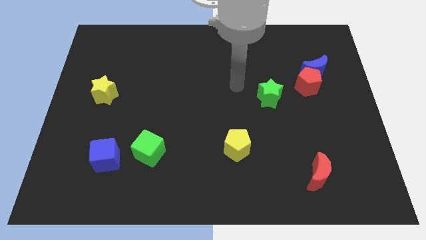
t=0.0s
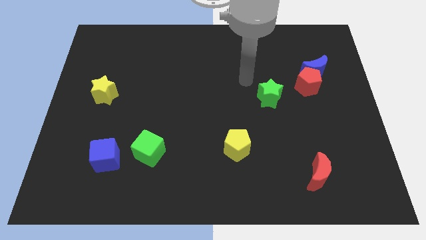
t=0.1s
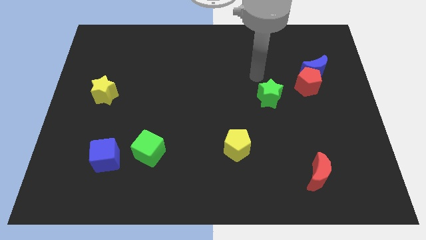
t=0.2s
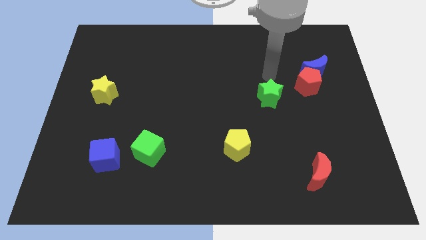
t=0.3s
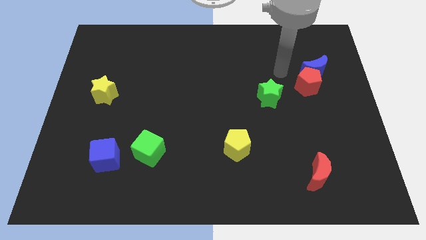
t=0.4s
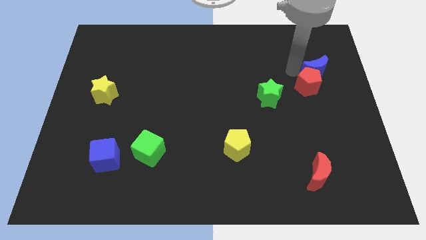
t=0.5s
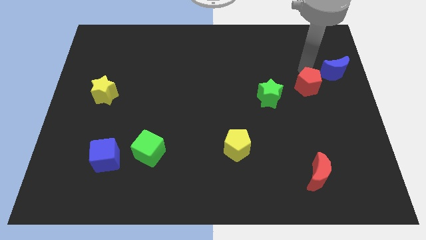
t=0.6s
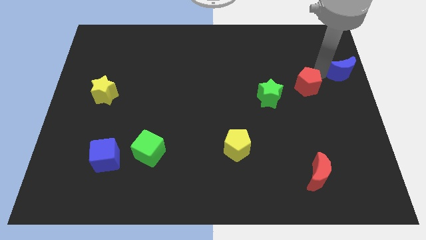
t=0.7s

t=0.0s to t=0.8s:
separate the red pentagon from the blue moon

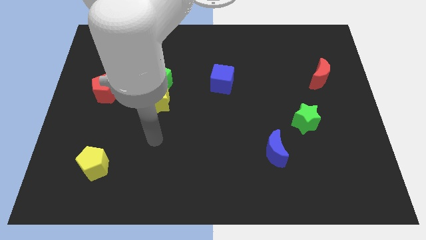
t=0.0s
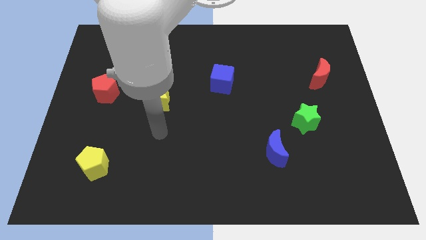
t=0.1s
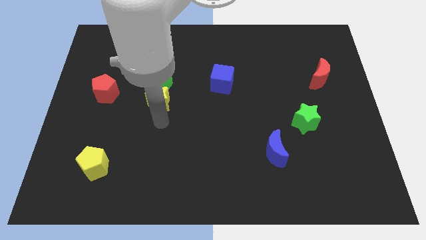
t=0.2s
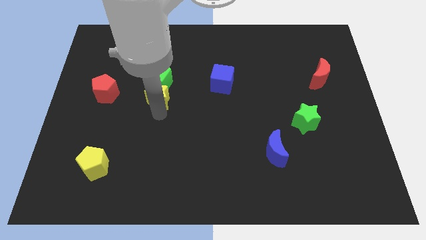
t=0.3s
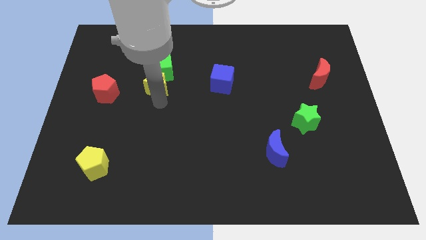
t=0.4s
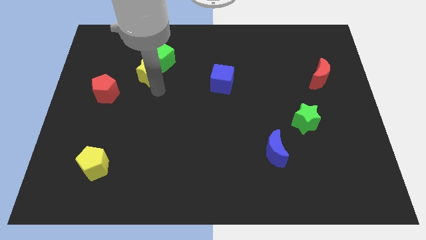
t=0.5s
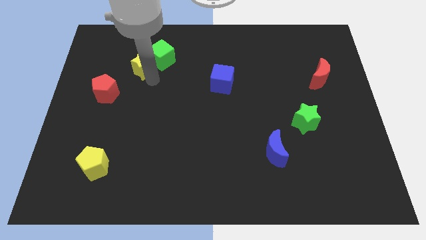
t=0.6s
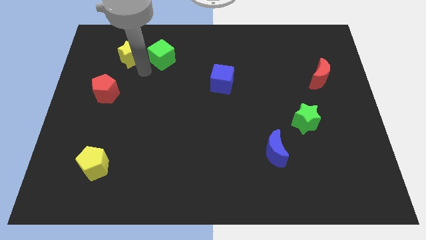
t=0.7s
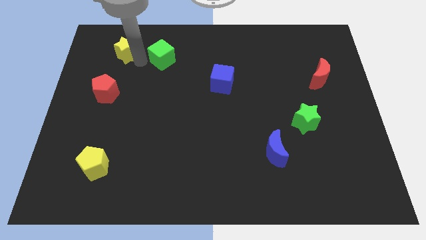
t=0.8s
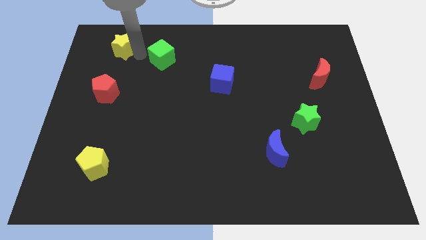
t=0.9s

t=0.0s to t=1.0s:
separate the green cube from the yellow star

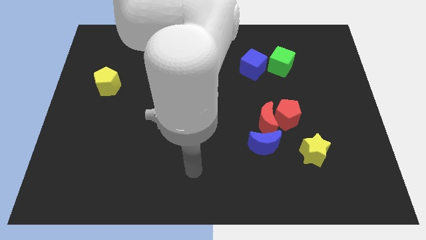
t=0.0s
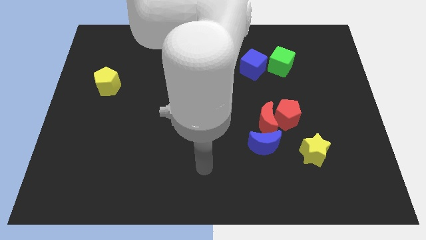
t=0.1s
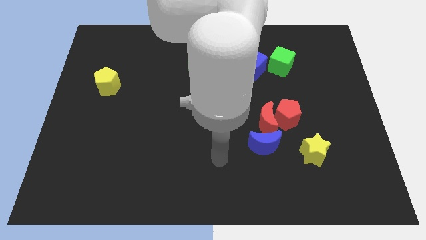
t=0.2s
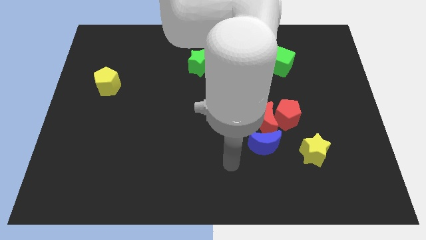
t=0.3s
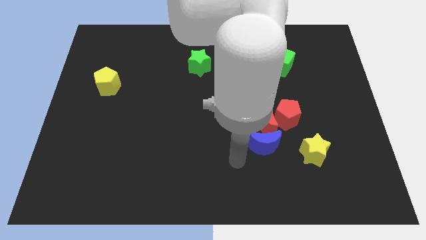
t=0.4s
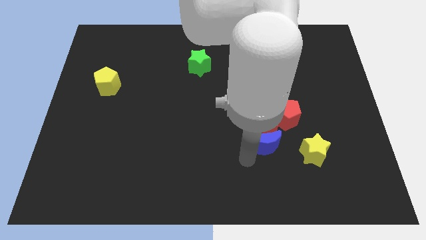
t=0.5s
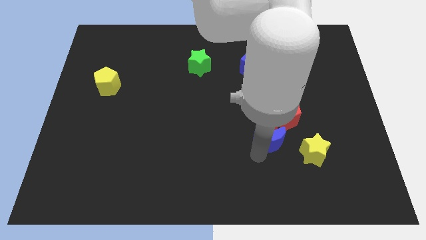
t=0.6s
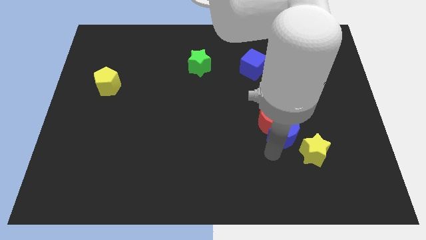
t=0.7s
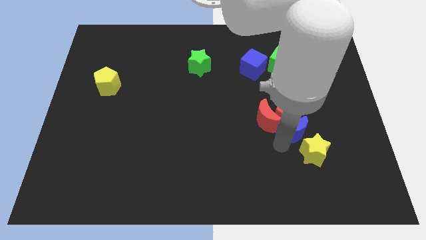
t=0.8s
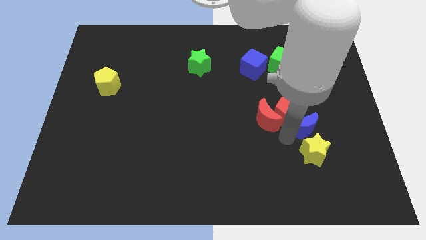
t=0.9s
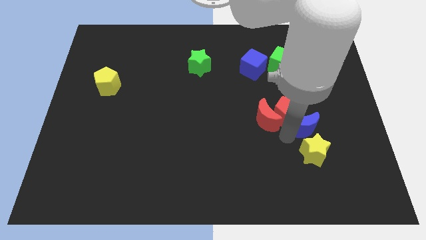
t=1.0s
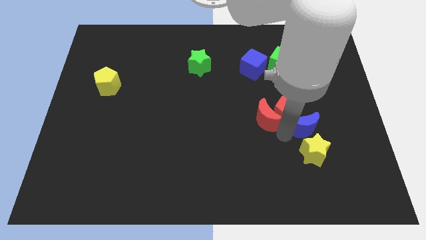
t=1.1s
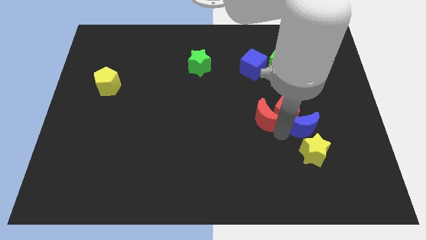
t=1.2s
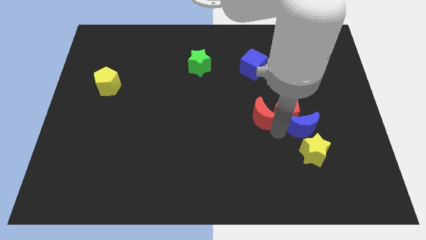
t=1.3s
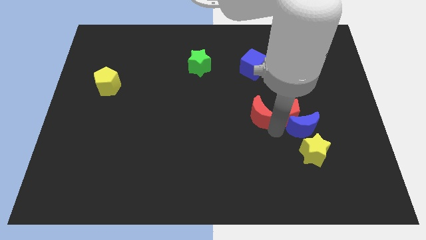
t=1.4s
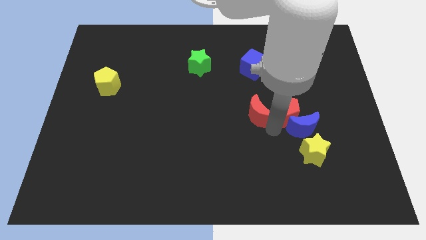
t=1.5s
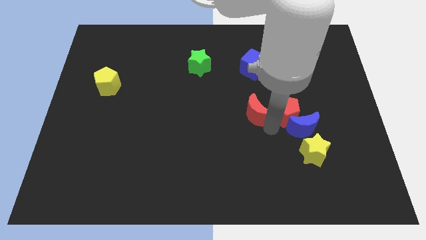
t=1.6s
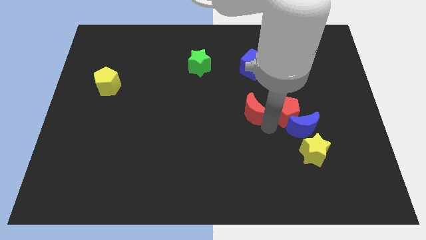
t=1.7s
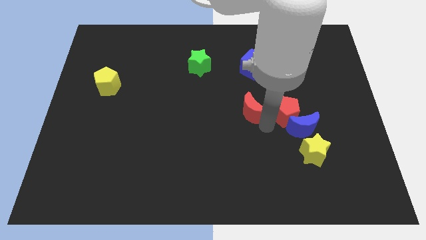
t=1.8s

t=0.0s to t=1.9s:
separate the red moon from the red pentagon and blue moon

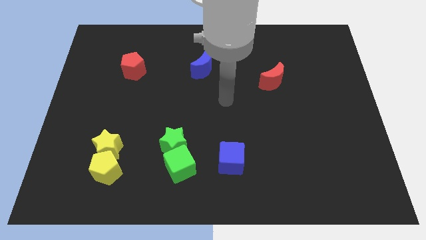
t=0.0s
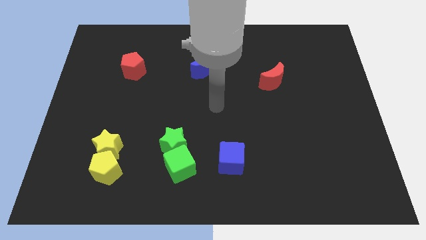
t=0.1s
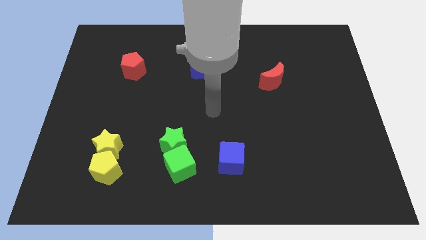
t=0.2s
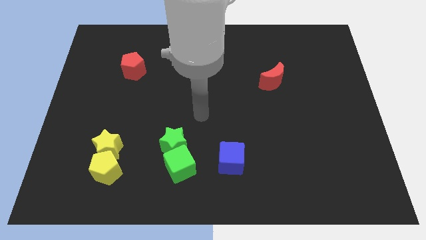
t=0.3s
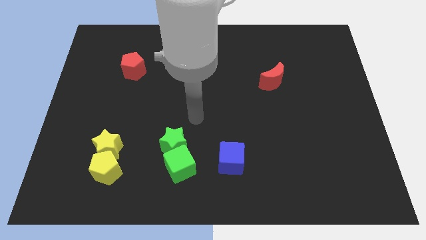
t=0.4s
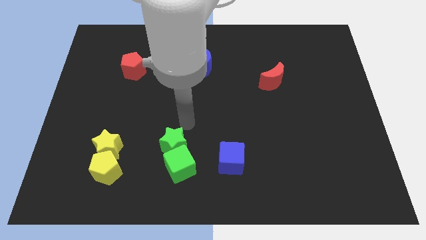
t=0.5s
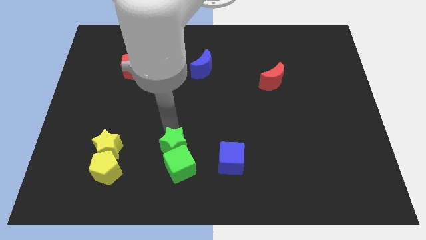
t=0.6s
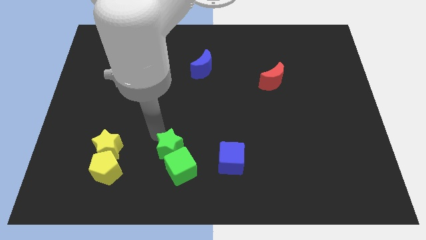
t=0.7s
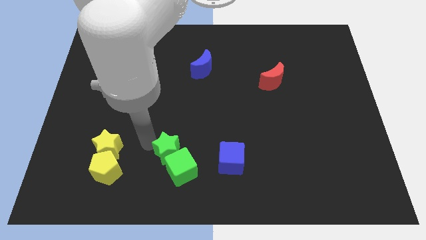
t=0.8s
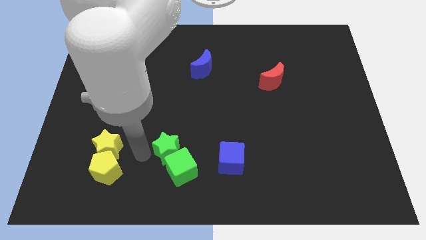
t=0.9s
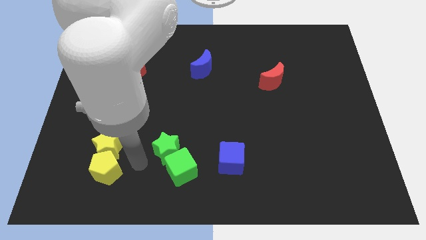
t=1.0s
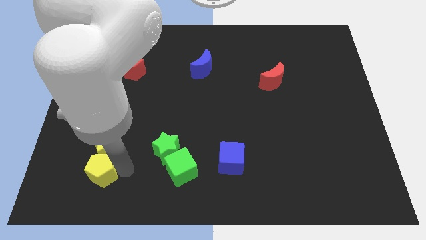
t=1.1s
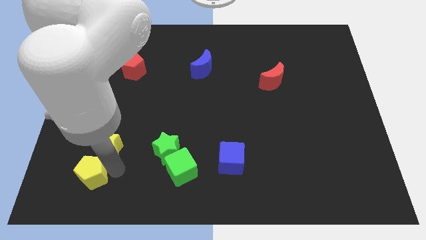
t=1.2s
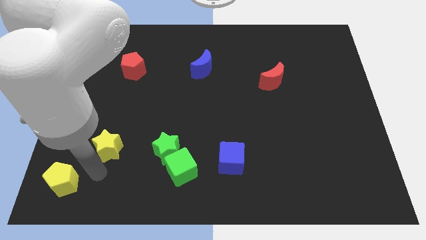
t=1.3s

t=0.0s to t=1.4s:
move the yellow star away from the yellow pentagon

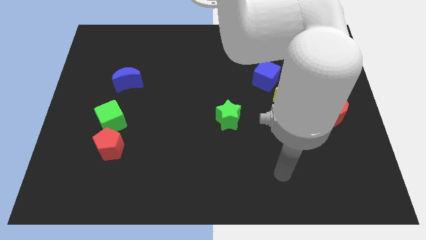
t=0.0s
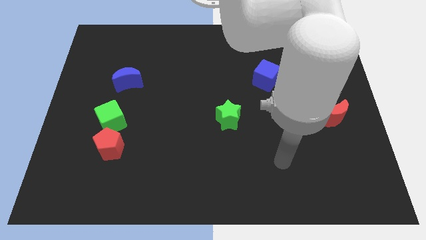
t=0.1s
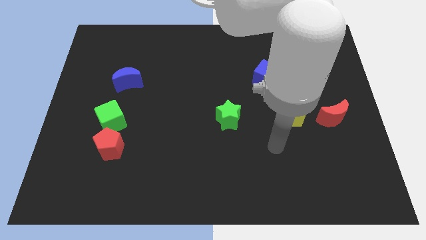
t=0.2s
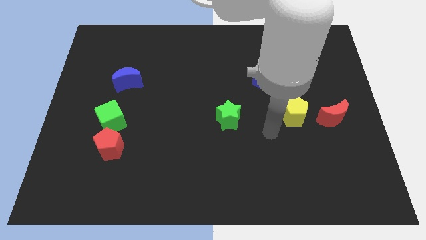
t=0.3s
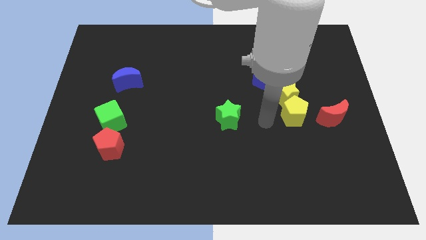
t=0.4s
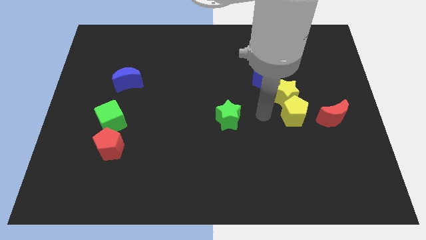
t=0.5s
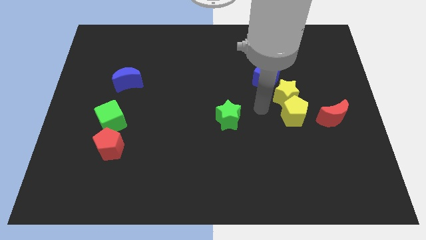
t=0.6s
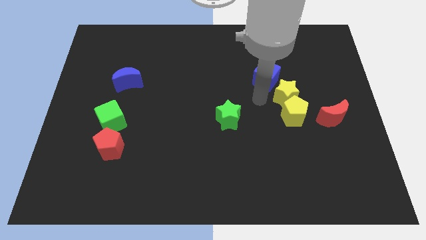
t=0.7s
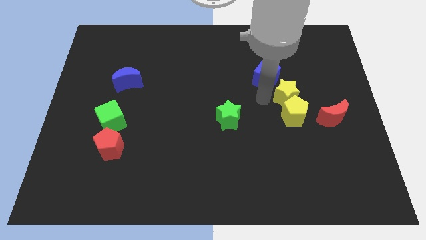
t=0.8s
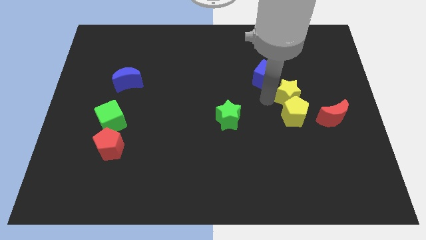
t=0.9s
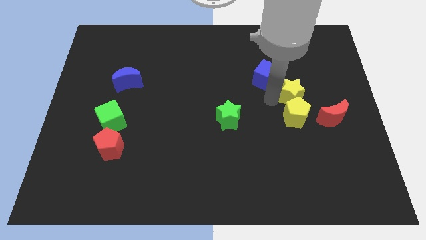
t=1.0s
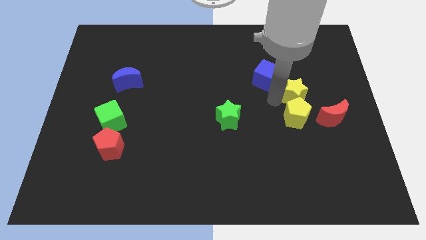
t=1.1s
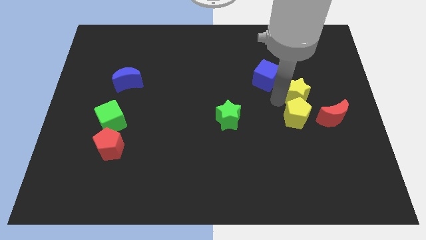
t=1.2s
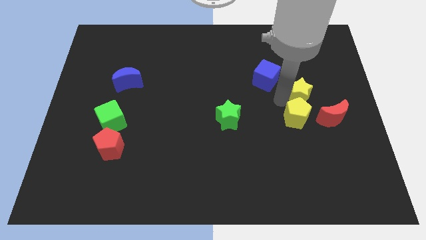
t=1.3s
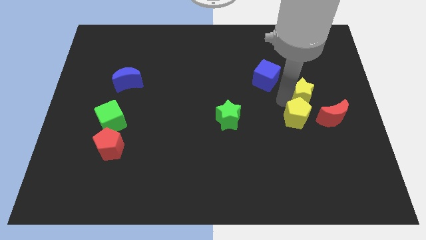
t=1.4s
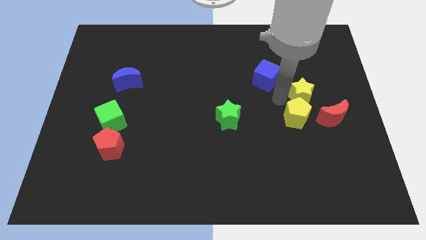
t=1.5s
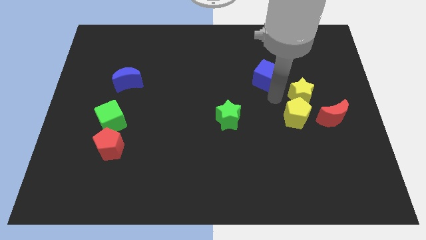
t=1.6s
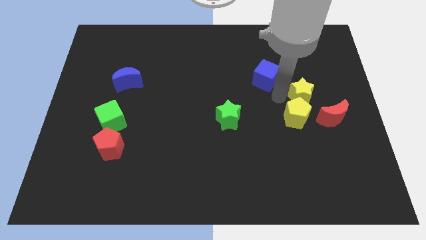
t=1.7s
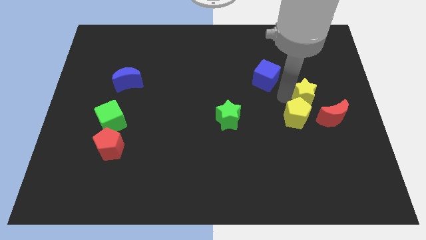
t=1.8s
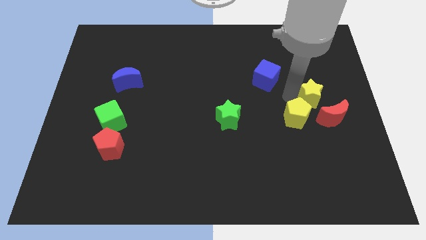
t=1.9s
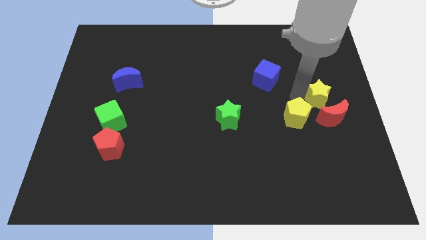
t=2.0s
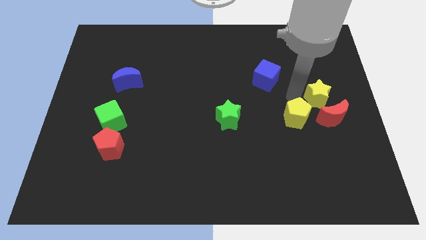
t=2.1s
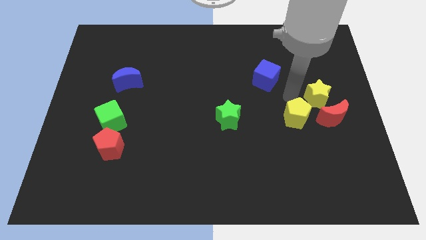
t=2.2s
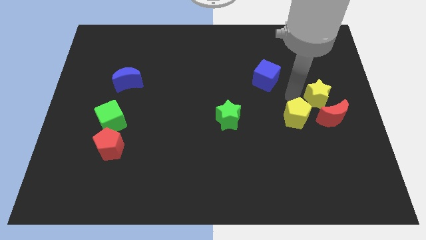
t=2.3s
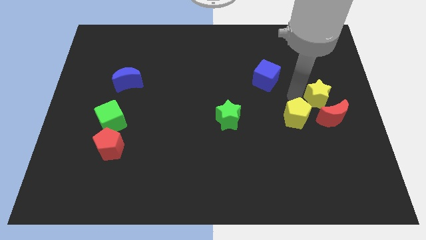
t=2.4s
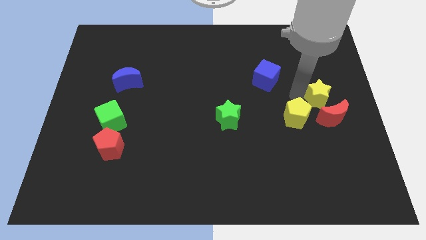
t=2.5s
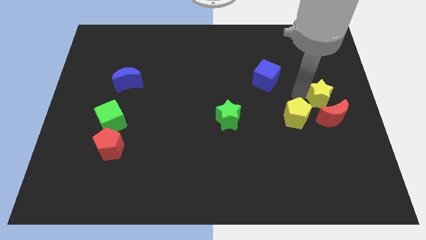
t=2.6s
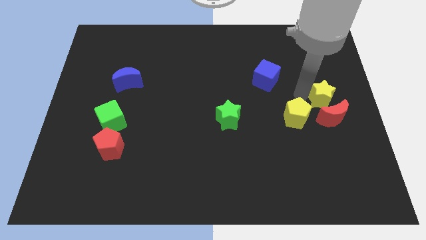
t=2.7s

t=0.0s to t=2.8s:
move the yellow star away from the yellow pentagon and blue cube

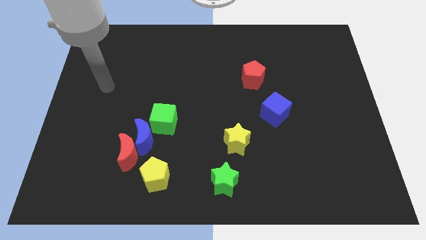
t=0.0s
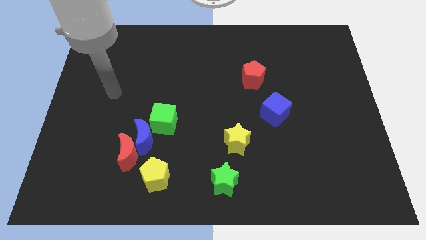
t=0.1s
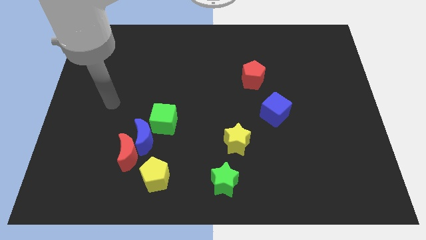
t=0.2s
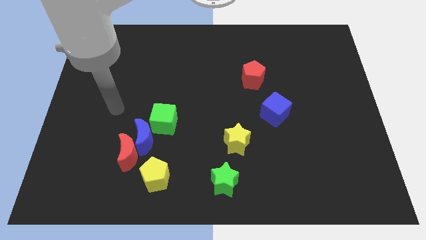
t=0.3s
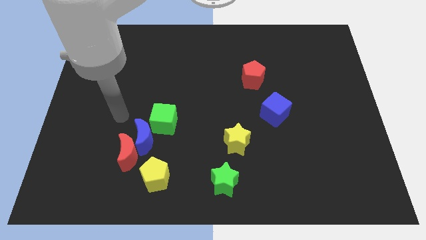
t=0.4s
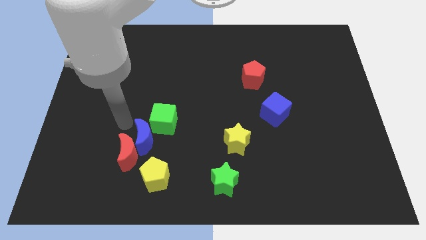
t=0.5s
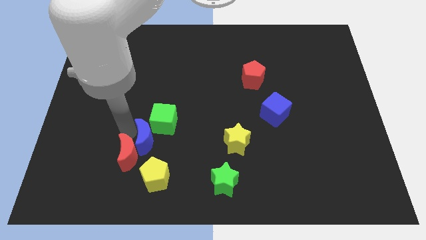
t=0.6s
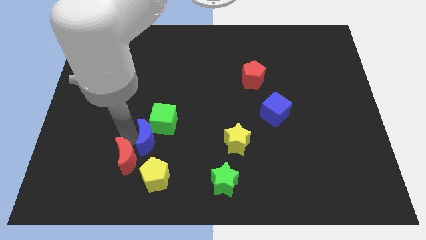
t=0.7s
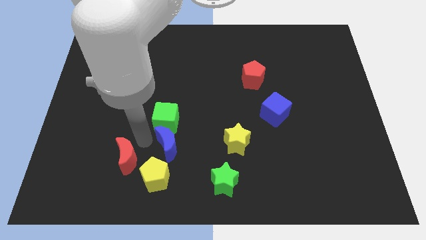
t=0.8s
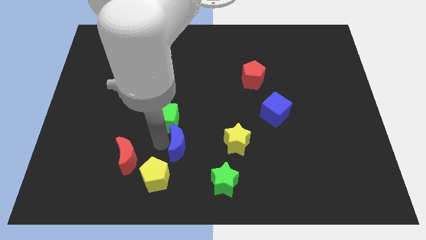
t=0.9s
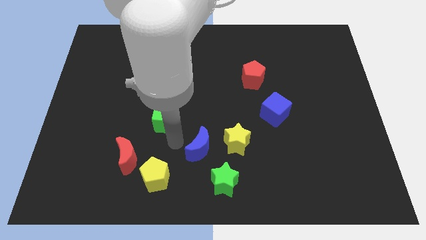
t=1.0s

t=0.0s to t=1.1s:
separate the green cube from the blue moon

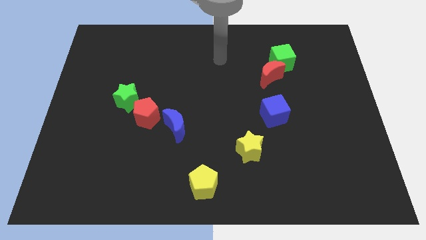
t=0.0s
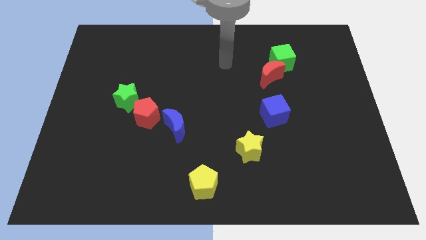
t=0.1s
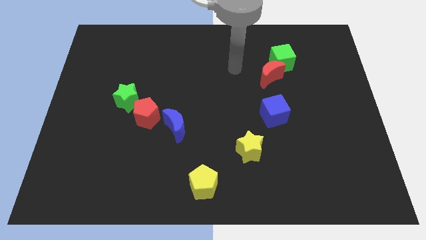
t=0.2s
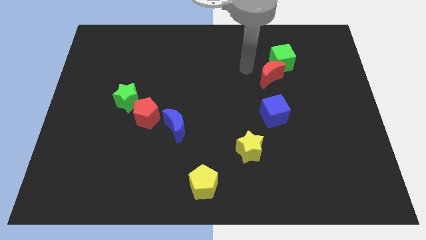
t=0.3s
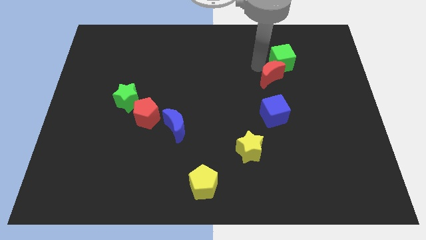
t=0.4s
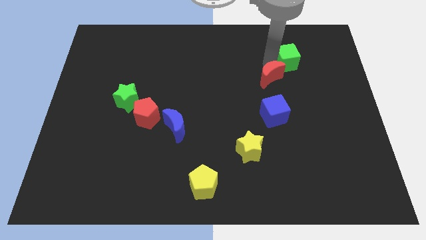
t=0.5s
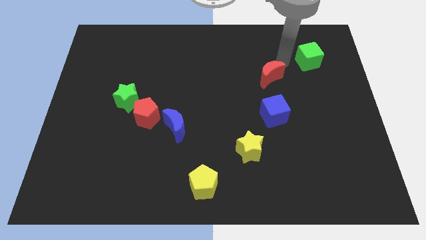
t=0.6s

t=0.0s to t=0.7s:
separate the red moon from the green cube
